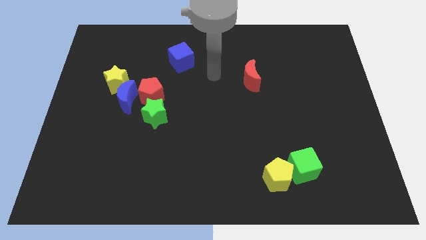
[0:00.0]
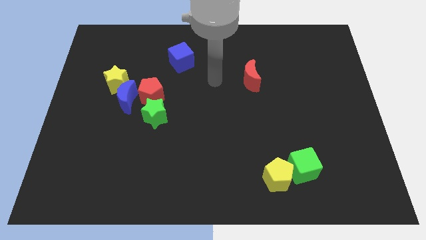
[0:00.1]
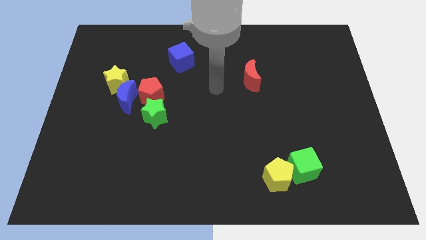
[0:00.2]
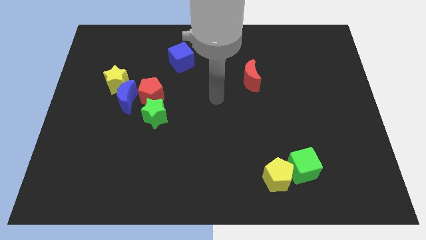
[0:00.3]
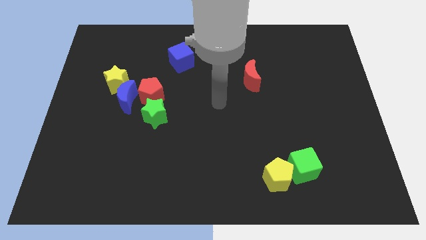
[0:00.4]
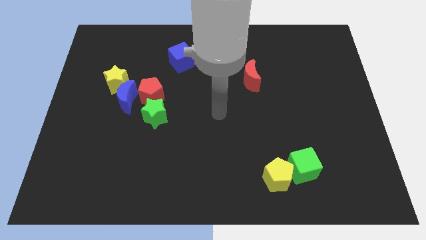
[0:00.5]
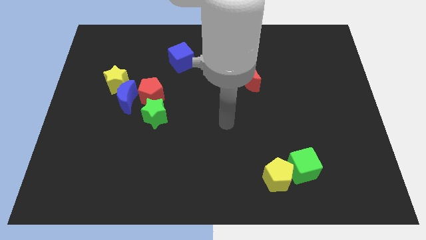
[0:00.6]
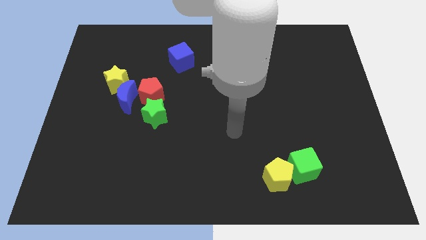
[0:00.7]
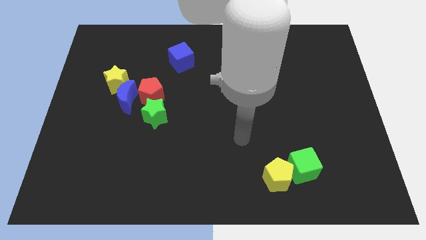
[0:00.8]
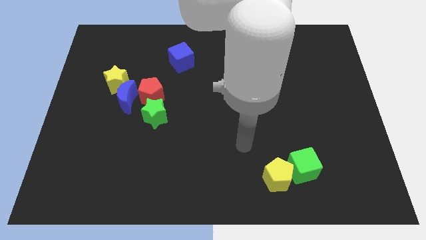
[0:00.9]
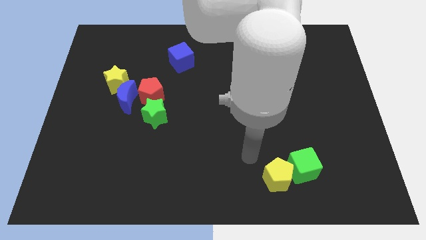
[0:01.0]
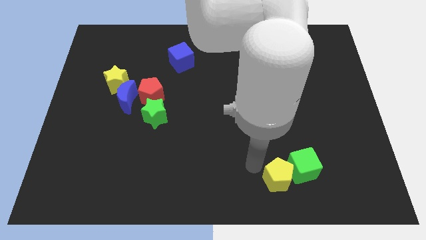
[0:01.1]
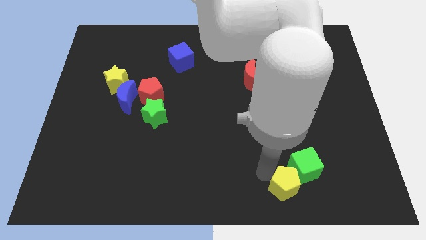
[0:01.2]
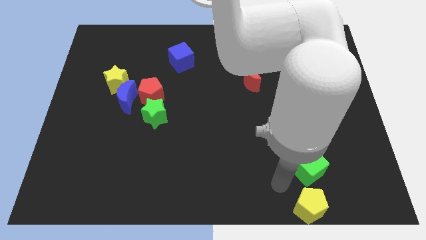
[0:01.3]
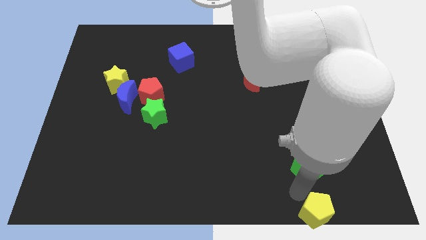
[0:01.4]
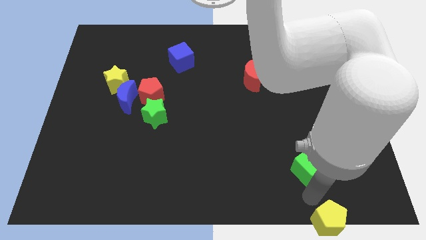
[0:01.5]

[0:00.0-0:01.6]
move the green cube away from the yellow pentagon

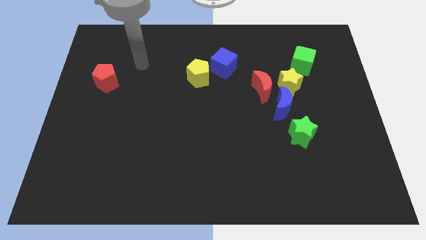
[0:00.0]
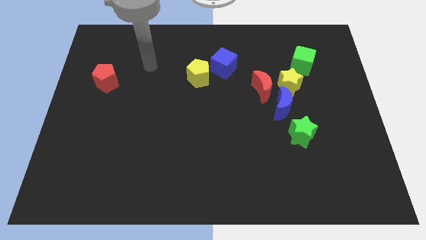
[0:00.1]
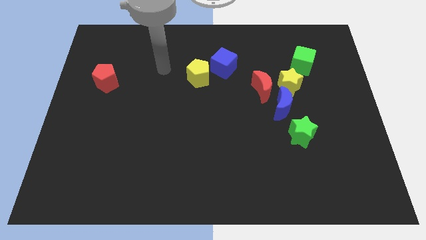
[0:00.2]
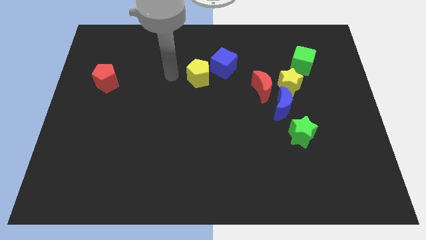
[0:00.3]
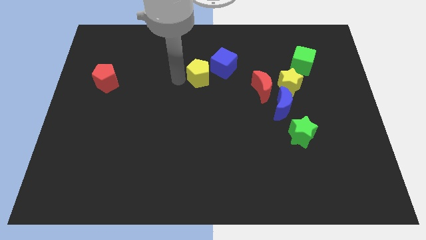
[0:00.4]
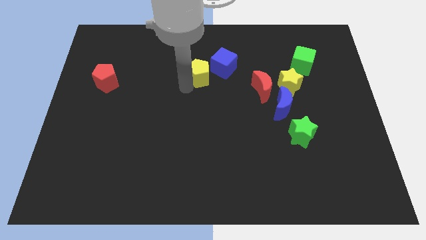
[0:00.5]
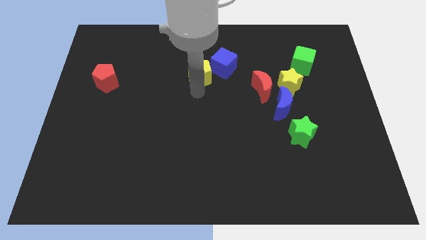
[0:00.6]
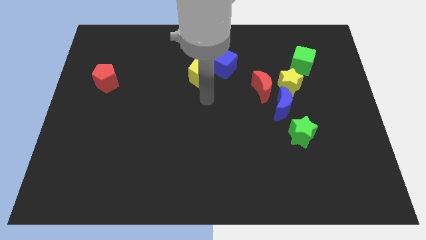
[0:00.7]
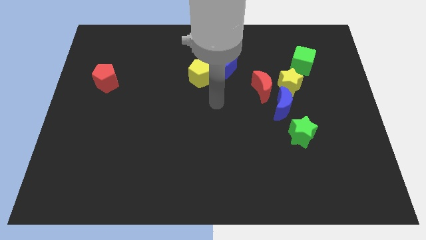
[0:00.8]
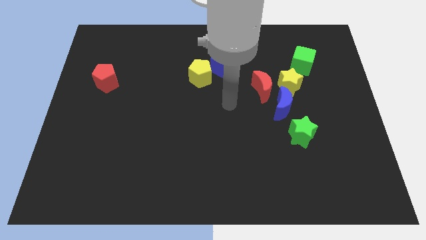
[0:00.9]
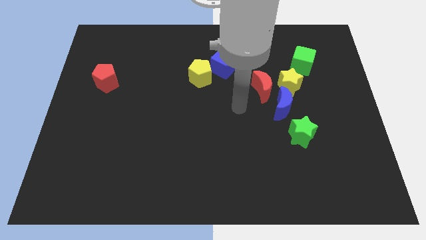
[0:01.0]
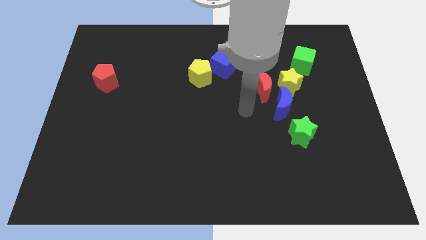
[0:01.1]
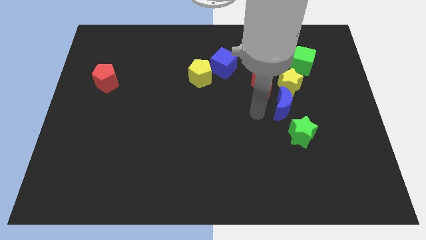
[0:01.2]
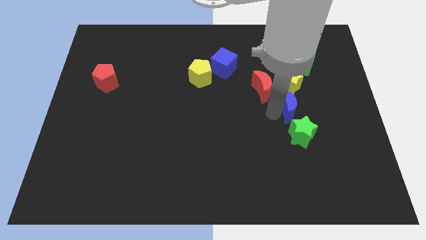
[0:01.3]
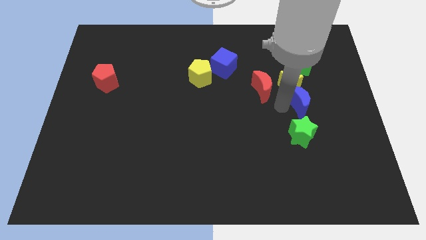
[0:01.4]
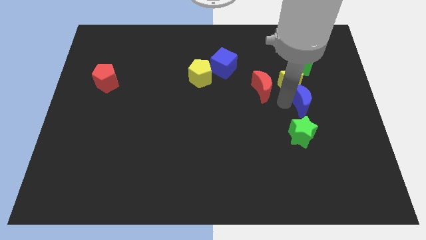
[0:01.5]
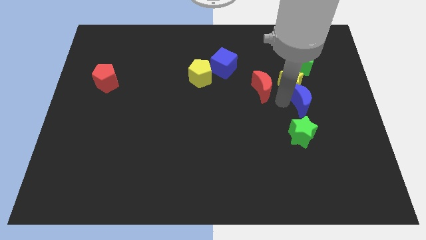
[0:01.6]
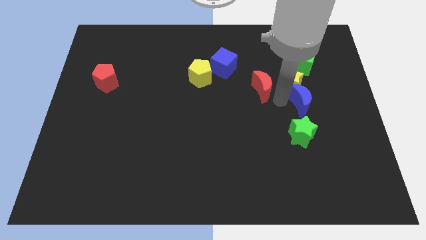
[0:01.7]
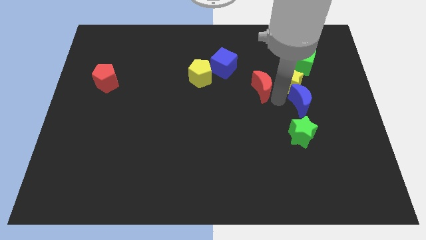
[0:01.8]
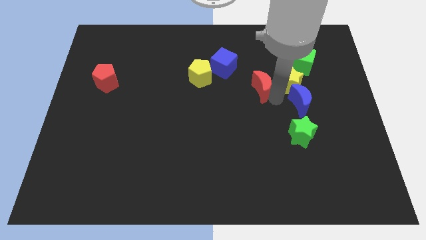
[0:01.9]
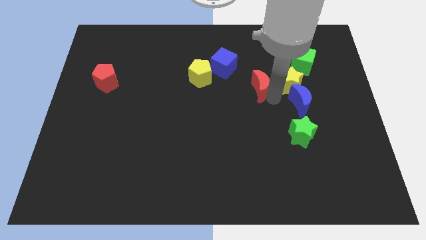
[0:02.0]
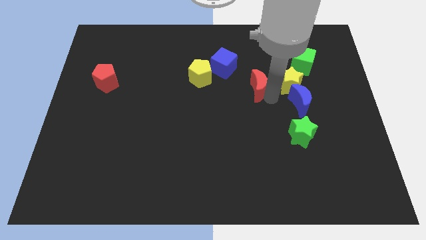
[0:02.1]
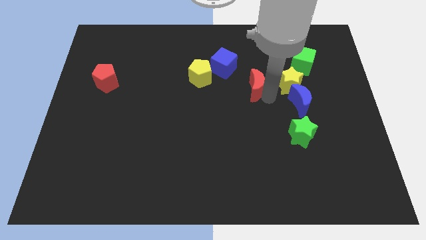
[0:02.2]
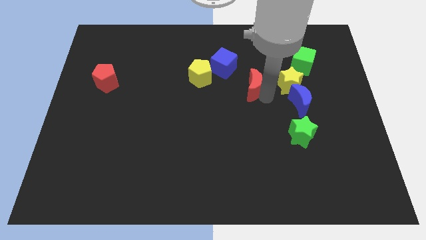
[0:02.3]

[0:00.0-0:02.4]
pull the red moon apart from the yellow star and blue moon

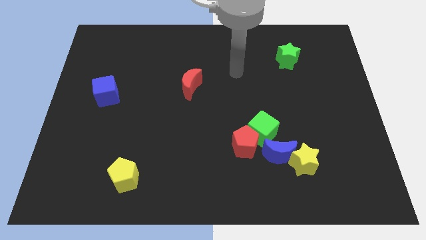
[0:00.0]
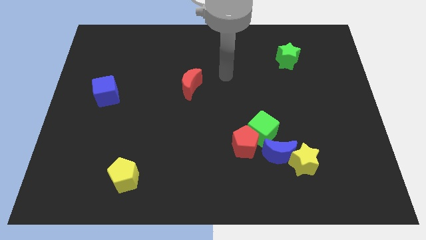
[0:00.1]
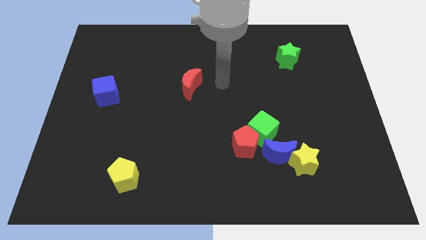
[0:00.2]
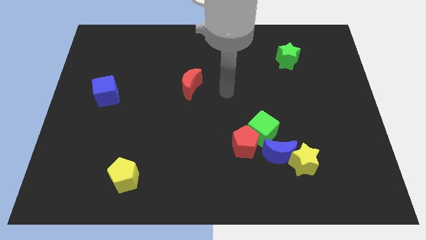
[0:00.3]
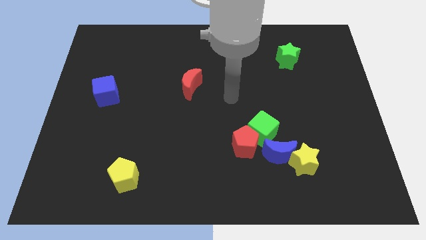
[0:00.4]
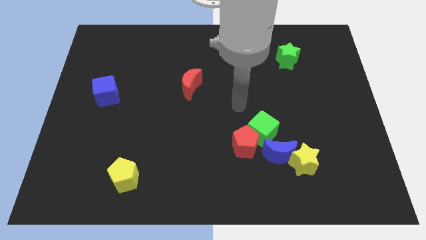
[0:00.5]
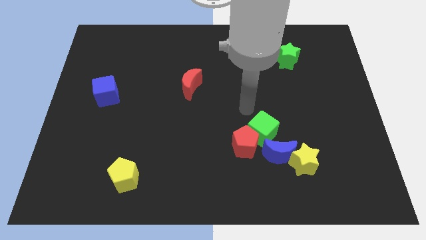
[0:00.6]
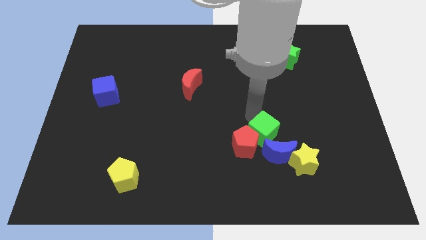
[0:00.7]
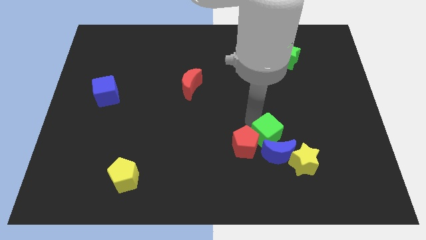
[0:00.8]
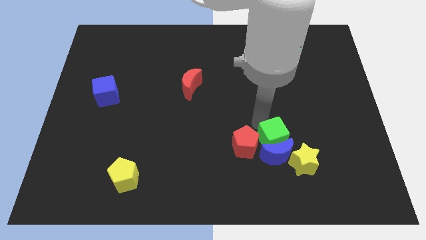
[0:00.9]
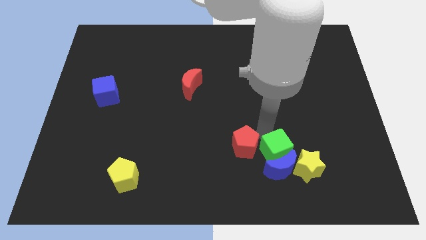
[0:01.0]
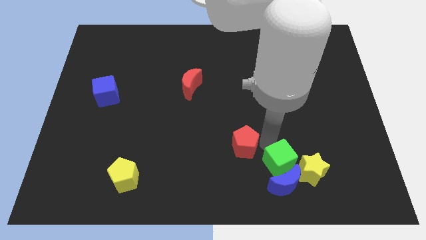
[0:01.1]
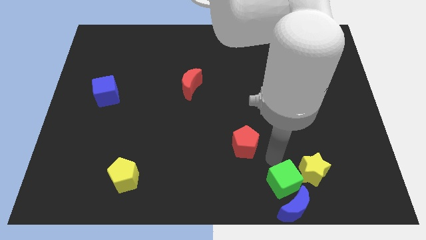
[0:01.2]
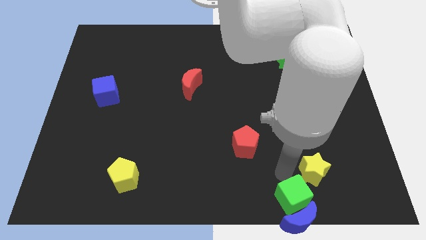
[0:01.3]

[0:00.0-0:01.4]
move the yellow star away from the blue moon

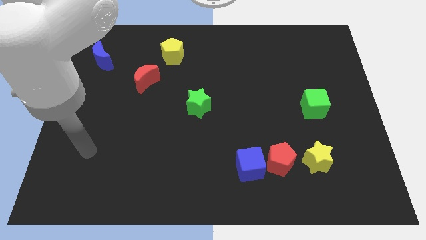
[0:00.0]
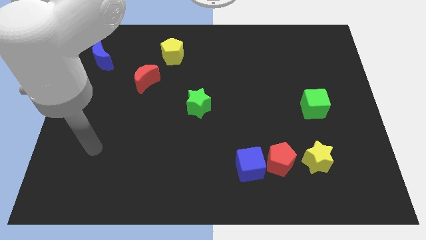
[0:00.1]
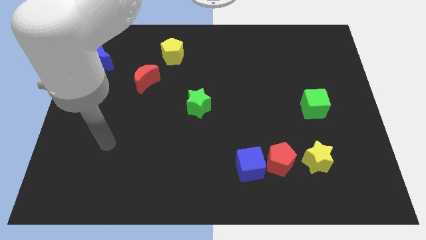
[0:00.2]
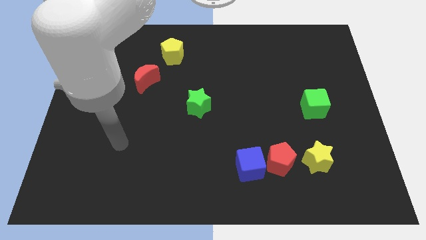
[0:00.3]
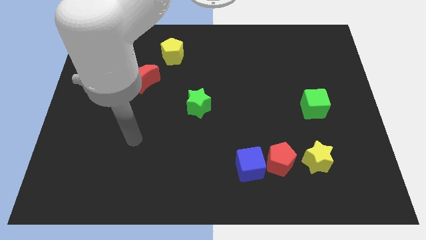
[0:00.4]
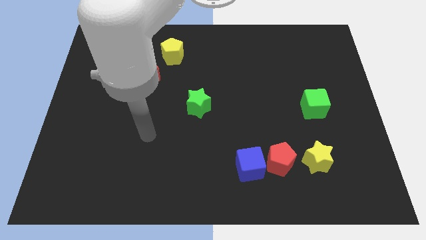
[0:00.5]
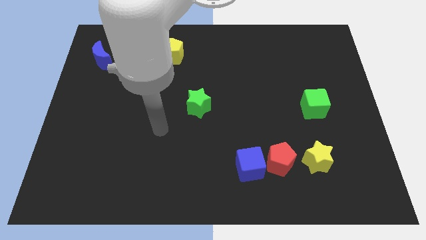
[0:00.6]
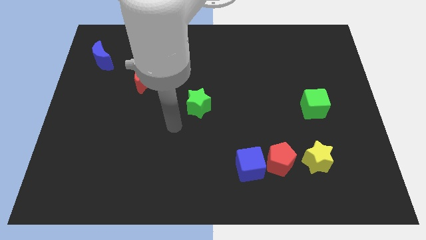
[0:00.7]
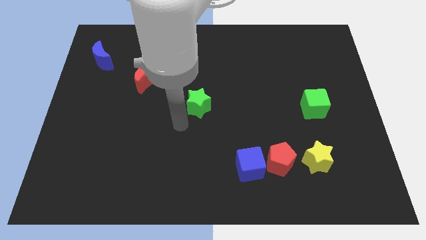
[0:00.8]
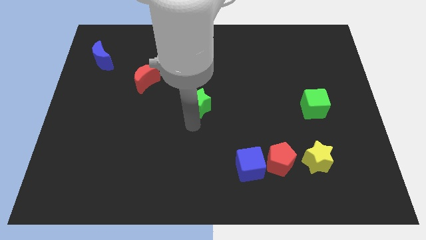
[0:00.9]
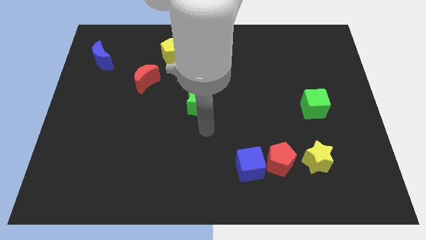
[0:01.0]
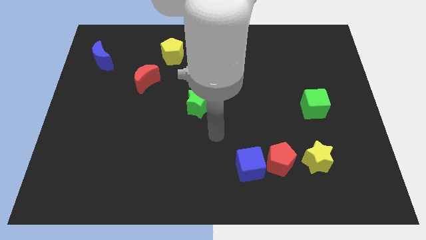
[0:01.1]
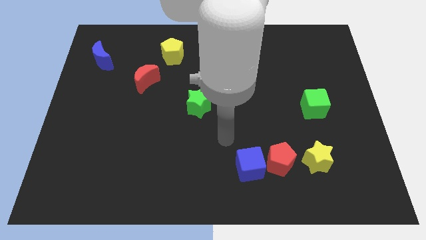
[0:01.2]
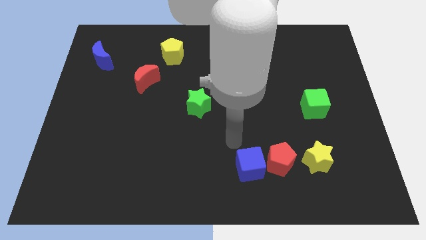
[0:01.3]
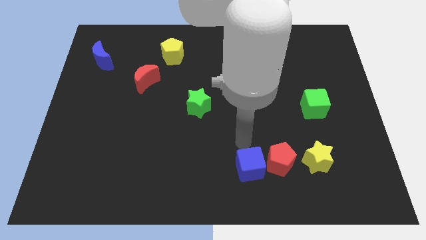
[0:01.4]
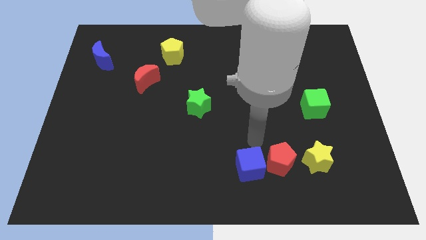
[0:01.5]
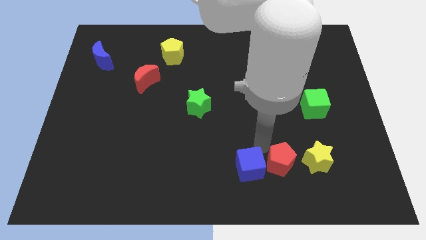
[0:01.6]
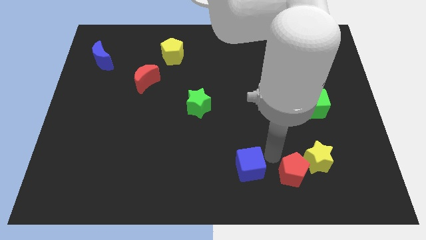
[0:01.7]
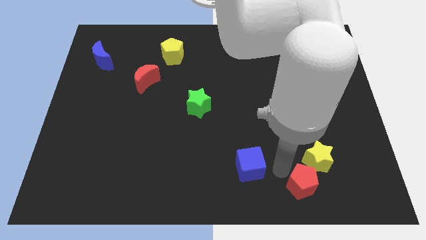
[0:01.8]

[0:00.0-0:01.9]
move the blue cube away from the red pentagon

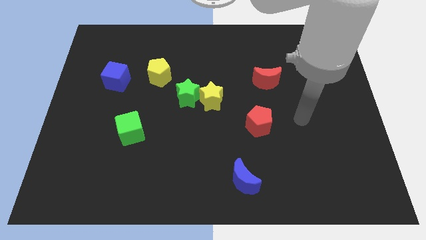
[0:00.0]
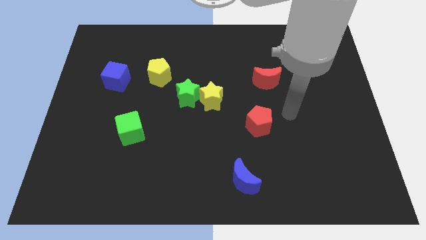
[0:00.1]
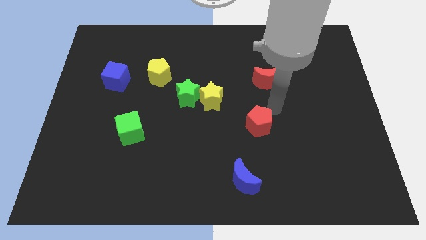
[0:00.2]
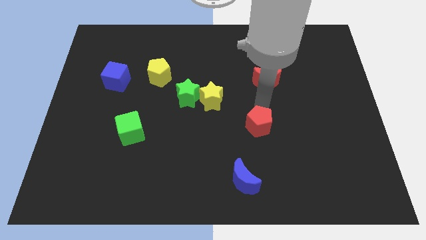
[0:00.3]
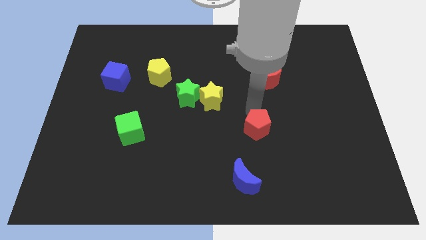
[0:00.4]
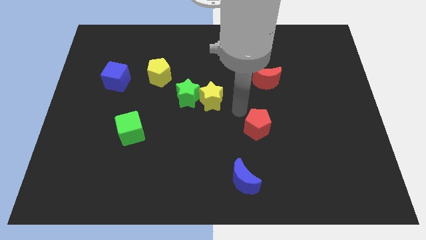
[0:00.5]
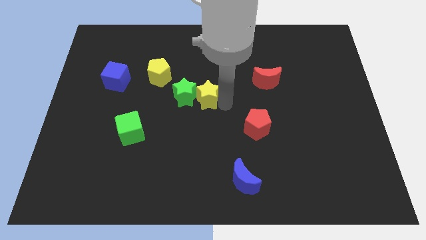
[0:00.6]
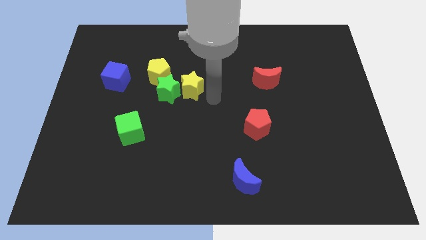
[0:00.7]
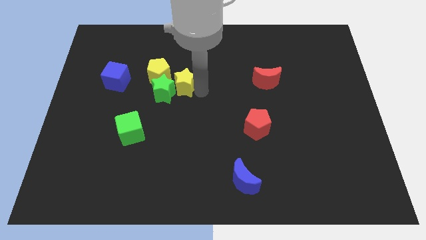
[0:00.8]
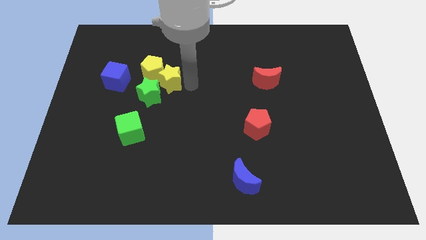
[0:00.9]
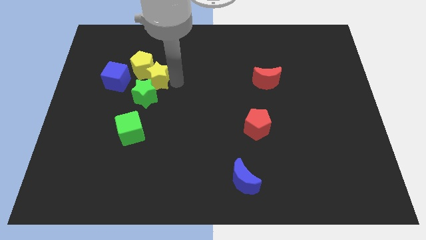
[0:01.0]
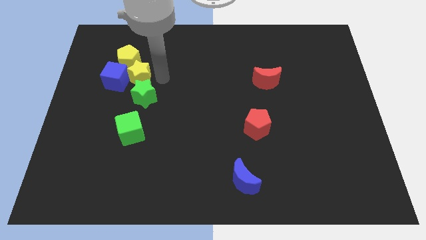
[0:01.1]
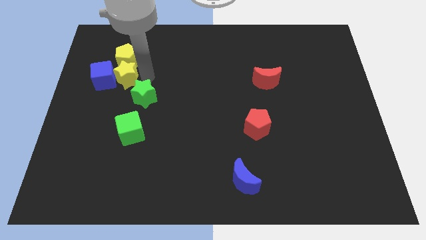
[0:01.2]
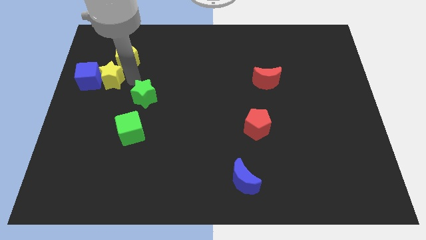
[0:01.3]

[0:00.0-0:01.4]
move the green star away from the yellow star

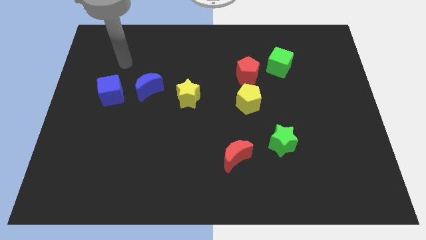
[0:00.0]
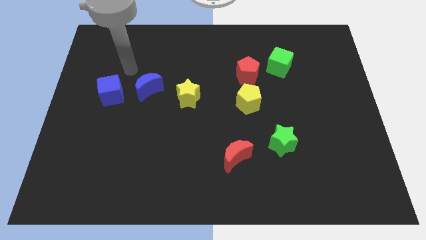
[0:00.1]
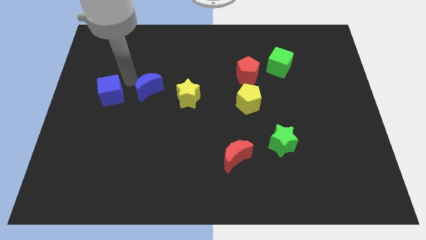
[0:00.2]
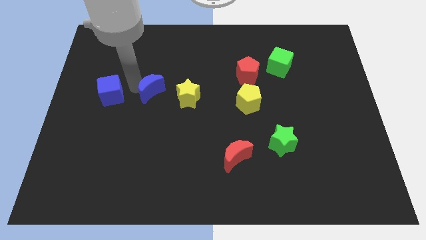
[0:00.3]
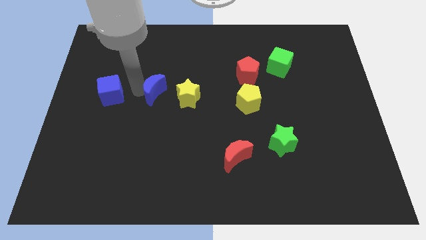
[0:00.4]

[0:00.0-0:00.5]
pull the blue cube apart from the blue moon
